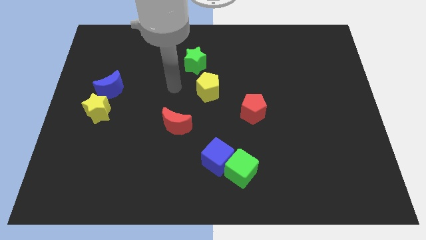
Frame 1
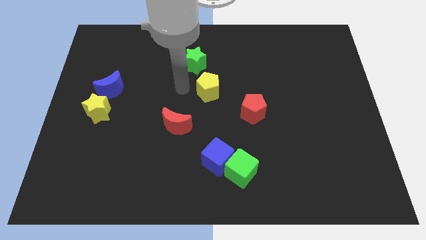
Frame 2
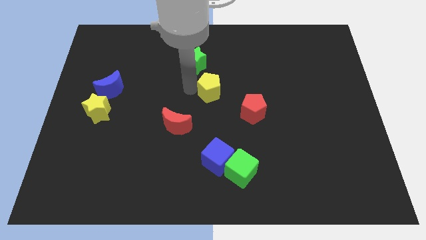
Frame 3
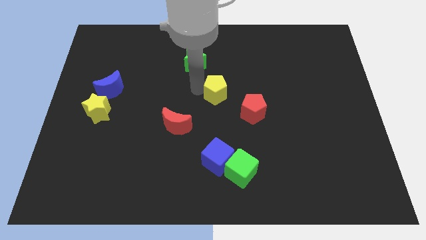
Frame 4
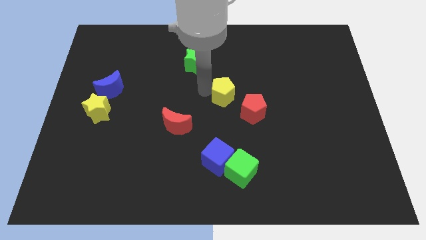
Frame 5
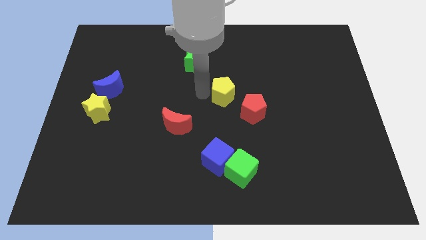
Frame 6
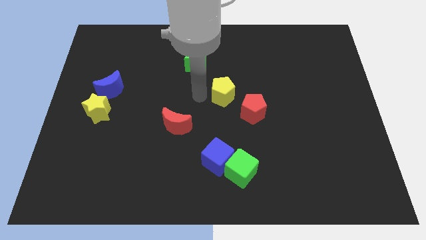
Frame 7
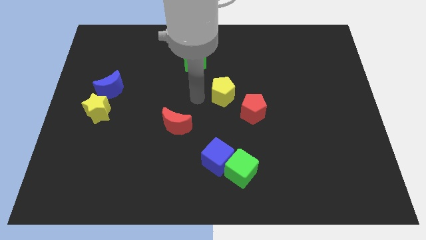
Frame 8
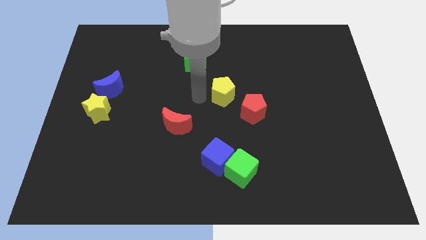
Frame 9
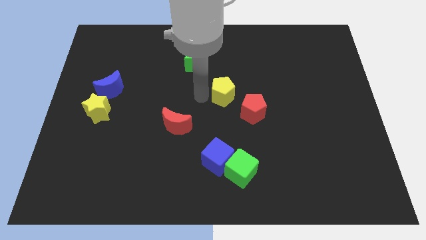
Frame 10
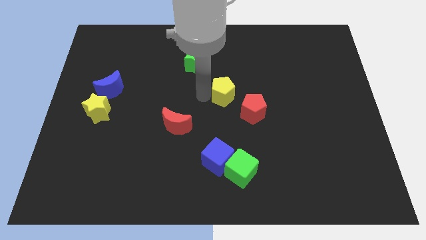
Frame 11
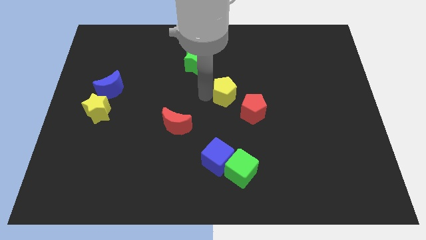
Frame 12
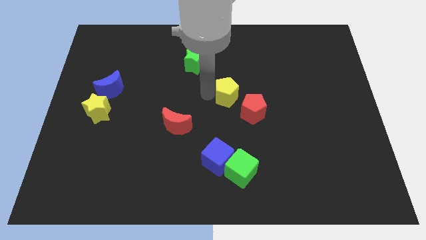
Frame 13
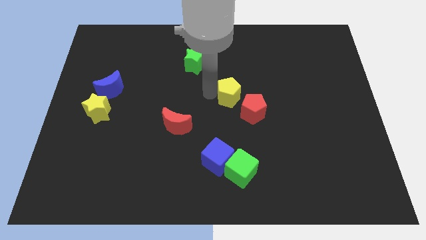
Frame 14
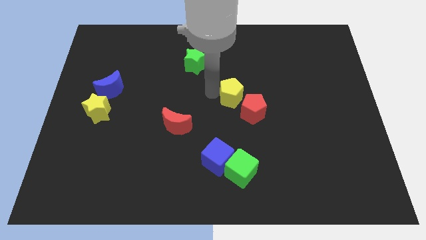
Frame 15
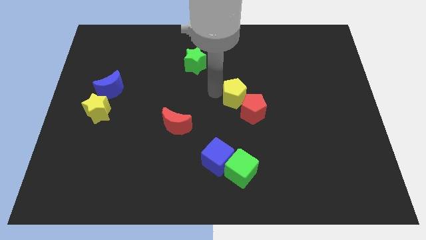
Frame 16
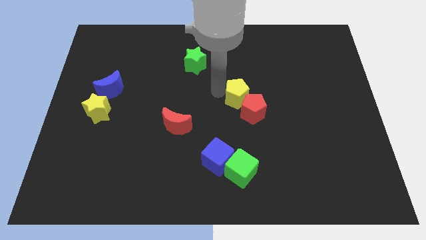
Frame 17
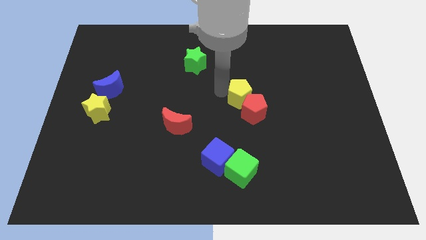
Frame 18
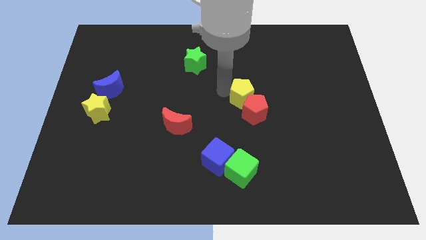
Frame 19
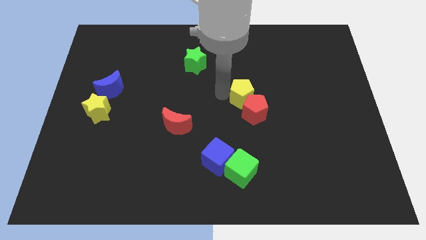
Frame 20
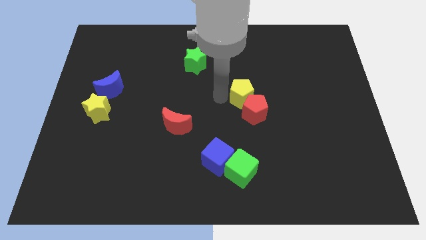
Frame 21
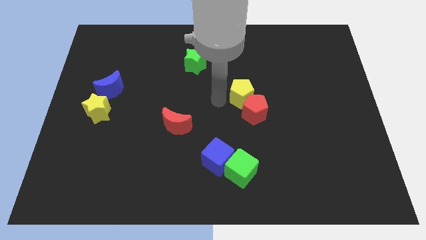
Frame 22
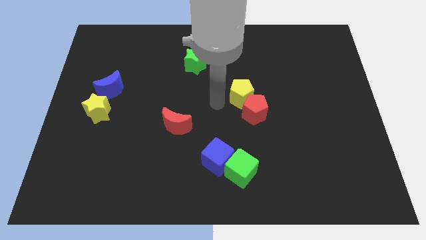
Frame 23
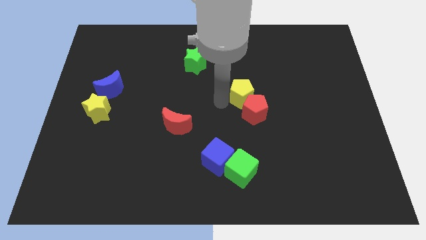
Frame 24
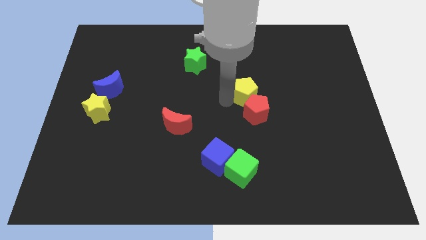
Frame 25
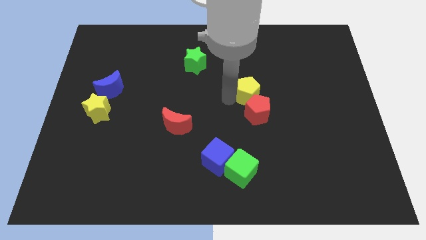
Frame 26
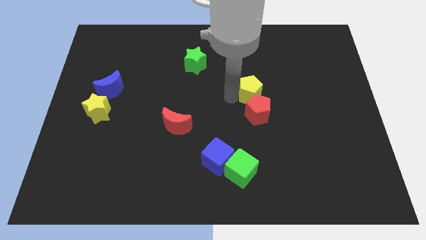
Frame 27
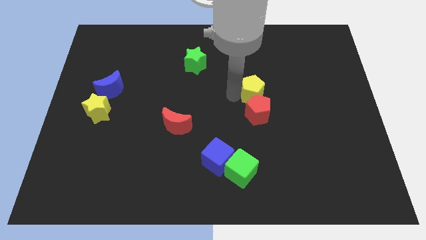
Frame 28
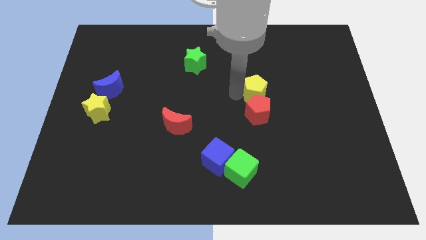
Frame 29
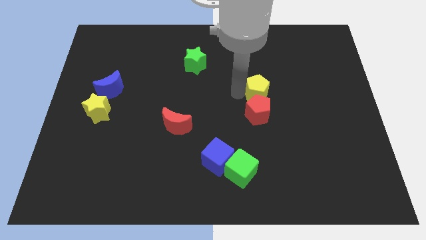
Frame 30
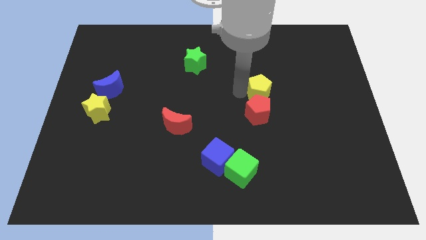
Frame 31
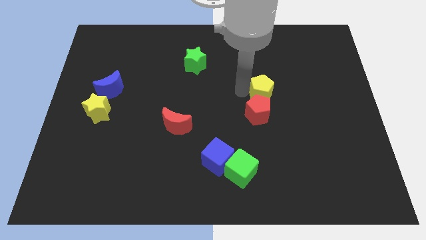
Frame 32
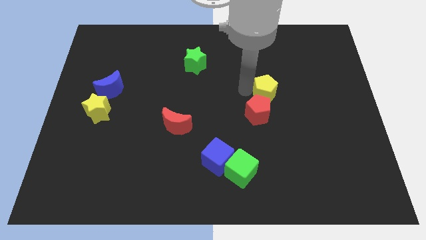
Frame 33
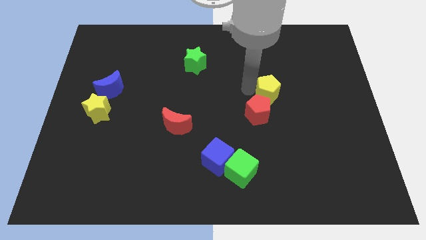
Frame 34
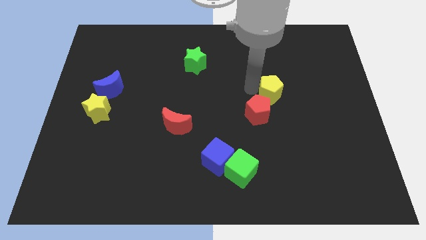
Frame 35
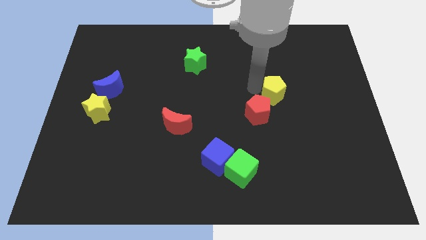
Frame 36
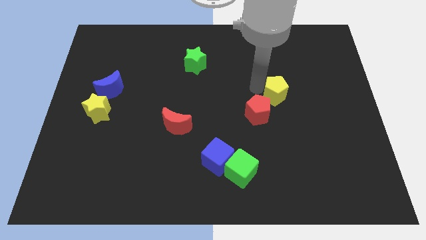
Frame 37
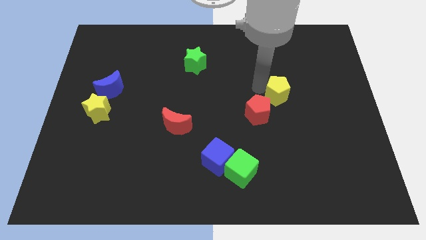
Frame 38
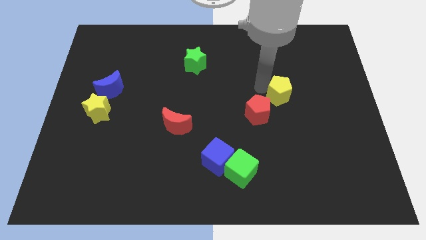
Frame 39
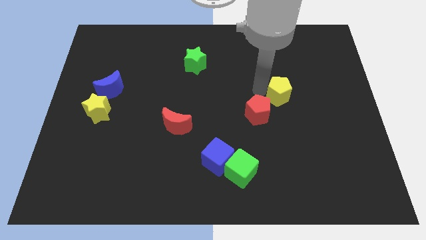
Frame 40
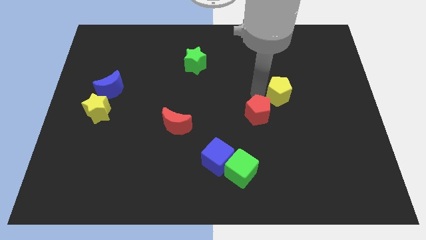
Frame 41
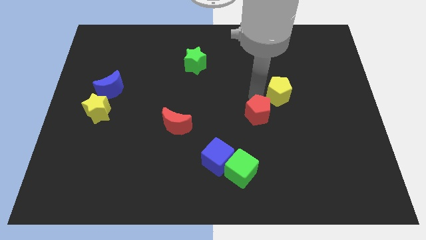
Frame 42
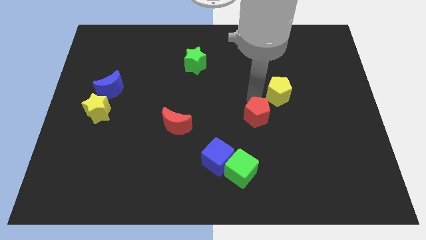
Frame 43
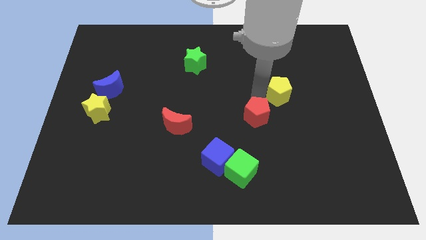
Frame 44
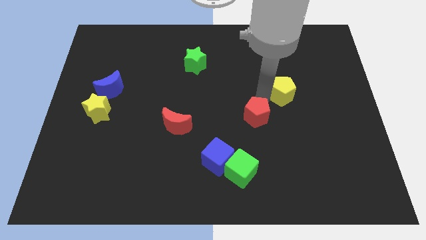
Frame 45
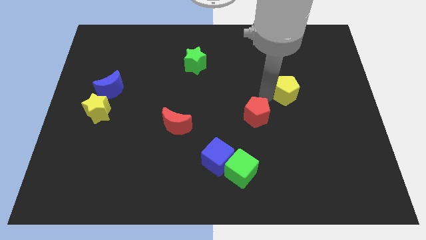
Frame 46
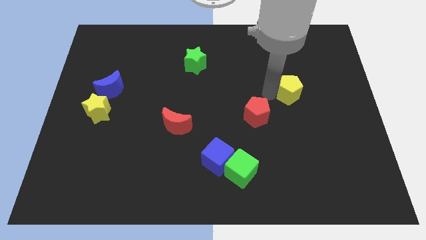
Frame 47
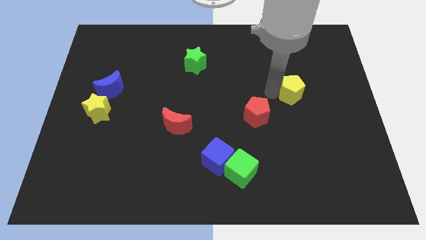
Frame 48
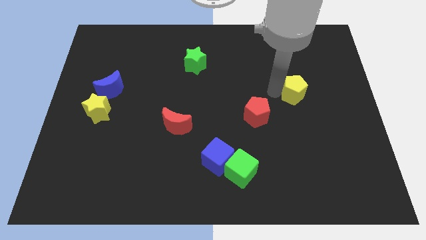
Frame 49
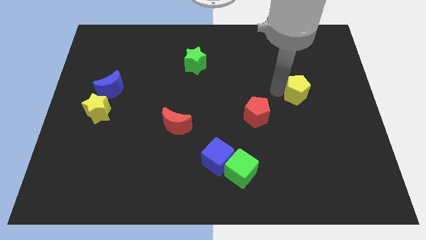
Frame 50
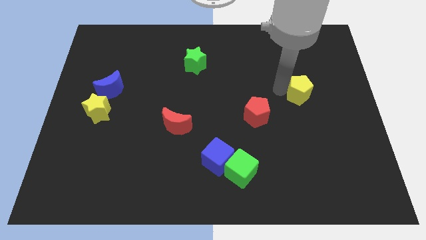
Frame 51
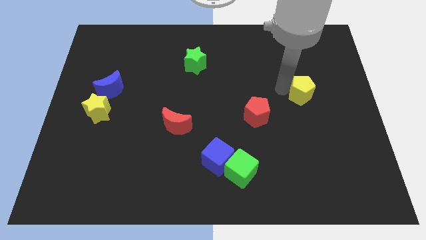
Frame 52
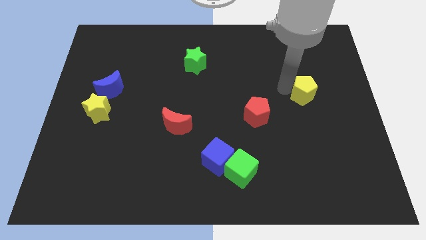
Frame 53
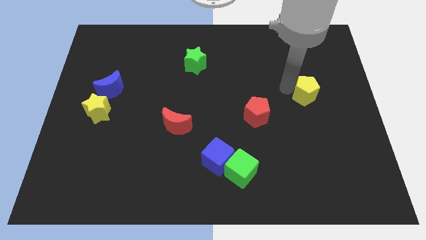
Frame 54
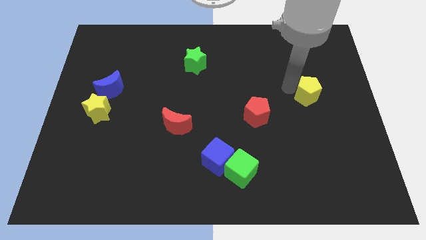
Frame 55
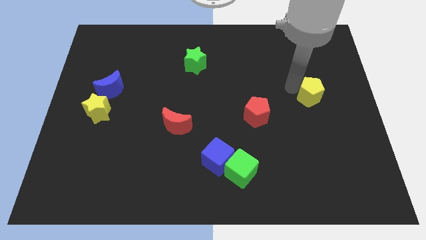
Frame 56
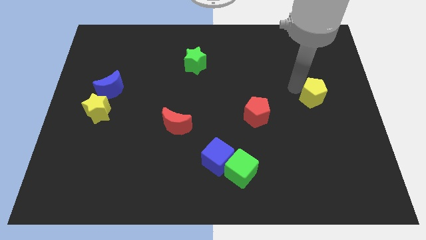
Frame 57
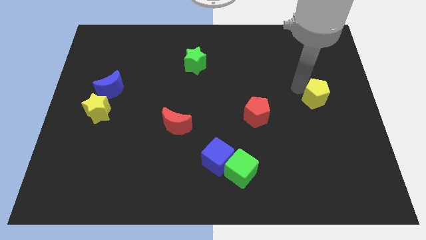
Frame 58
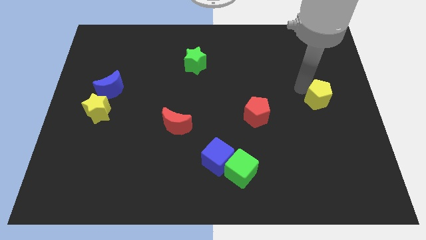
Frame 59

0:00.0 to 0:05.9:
put the yellow pentagon to the right side of the board
